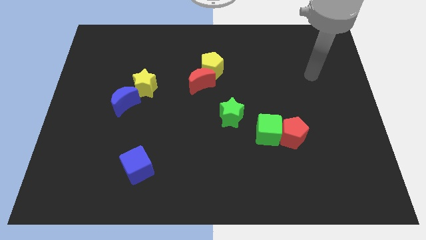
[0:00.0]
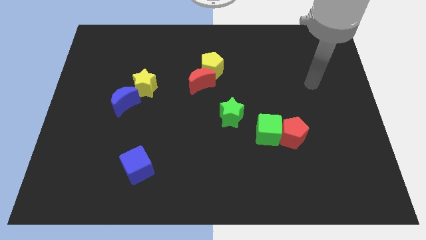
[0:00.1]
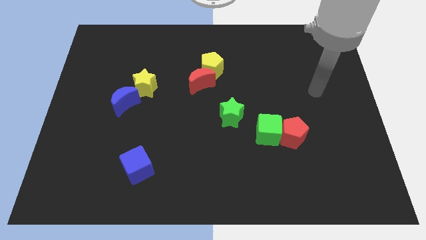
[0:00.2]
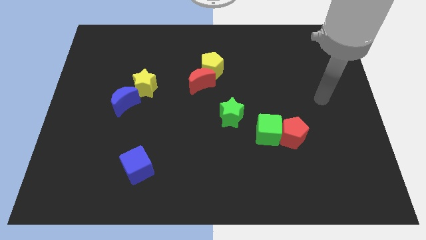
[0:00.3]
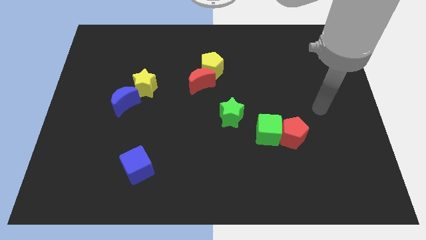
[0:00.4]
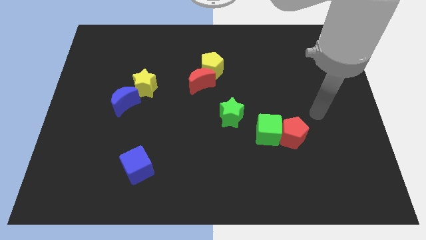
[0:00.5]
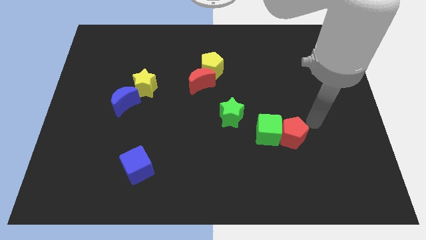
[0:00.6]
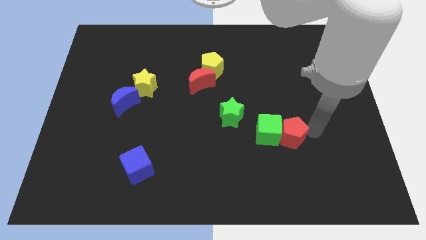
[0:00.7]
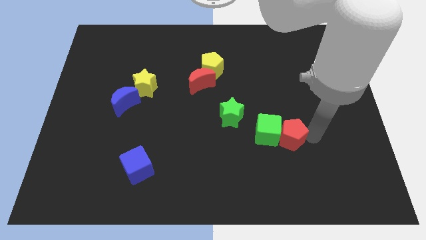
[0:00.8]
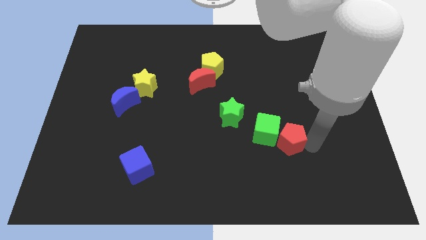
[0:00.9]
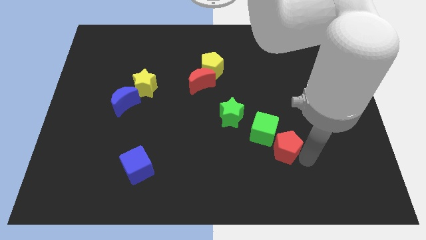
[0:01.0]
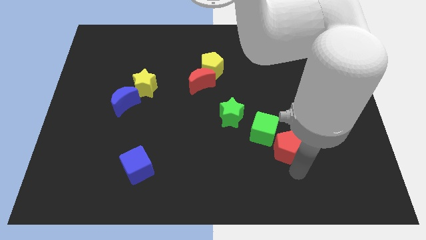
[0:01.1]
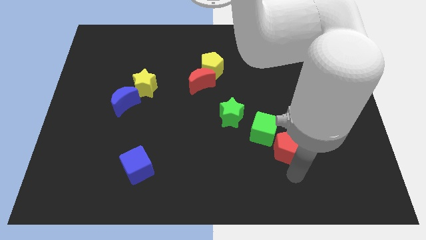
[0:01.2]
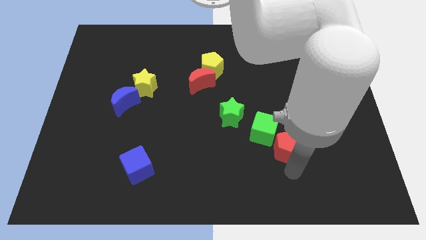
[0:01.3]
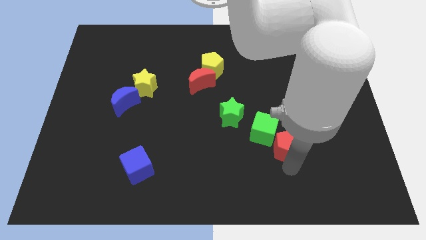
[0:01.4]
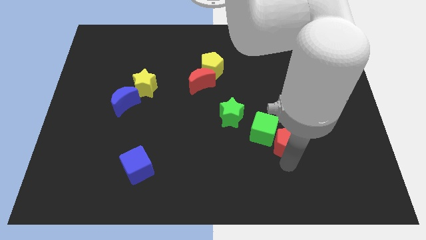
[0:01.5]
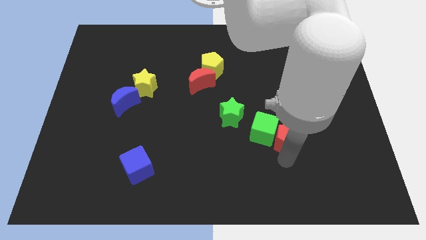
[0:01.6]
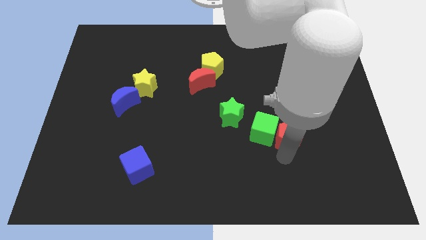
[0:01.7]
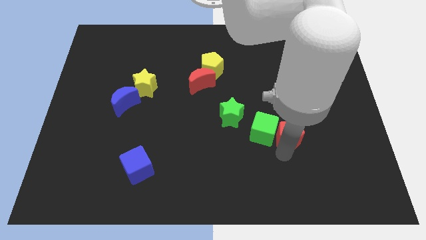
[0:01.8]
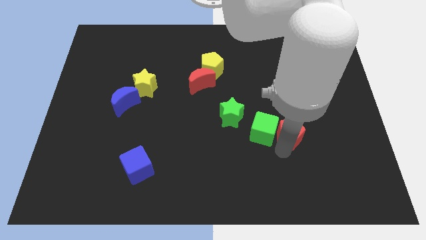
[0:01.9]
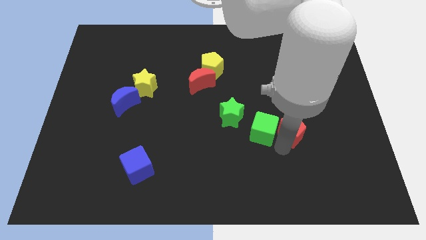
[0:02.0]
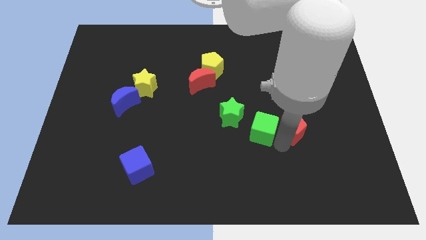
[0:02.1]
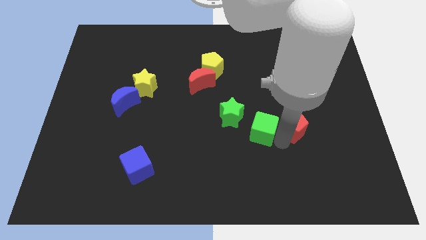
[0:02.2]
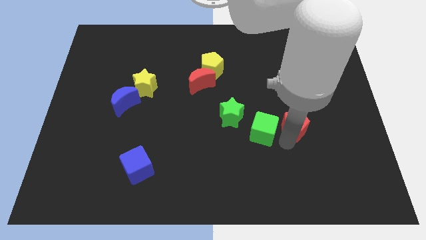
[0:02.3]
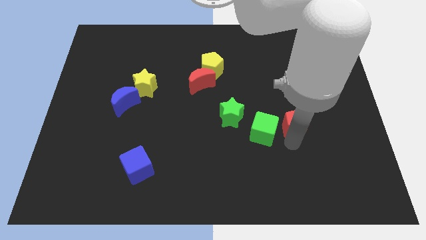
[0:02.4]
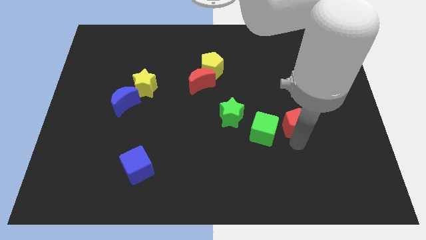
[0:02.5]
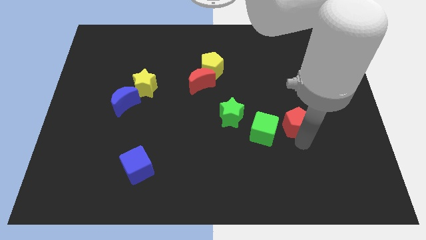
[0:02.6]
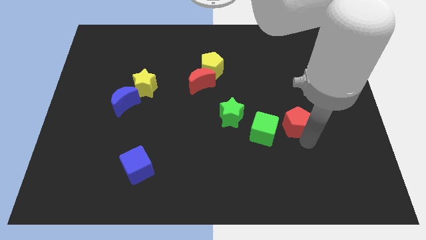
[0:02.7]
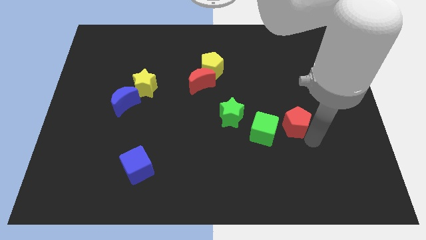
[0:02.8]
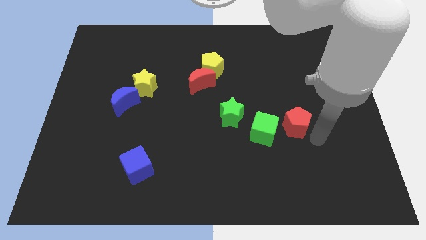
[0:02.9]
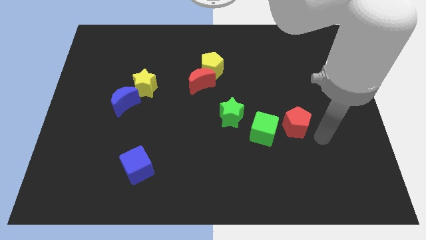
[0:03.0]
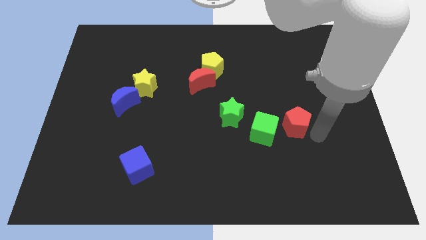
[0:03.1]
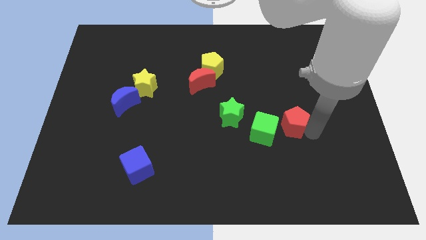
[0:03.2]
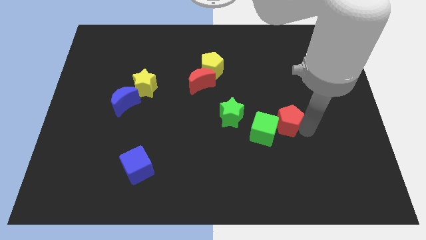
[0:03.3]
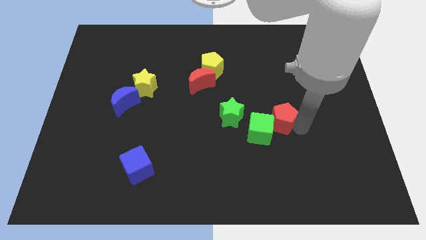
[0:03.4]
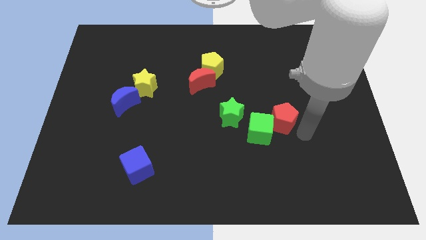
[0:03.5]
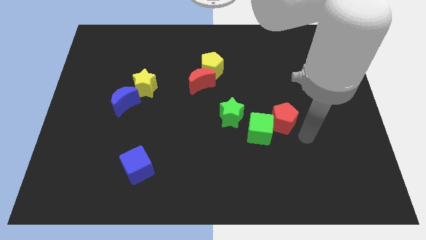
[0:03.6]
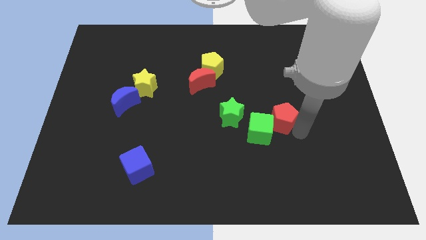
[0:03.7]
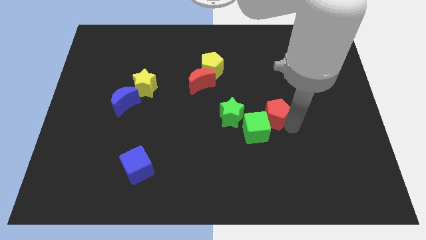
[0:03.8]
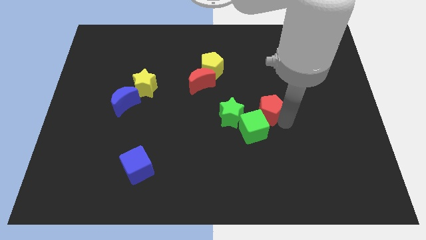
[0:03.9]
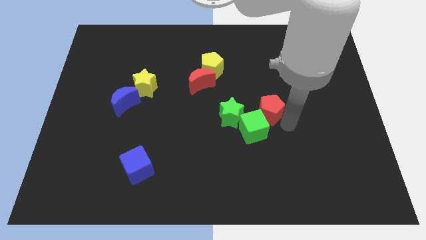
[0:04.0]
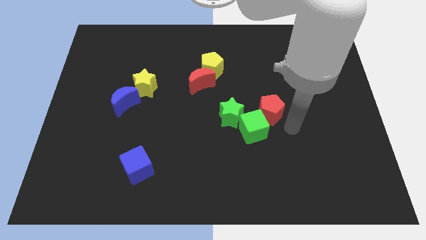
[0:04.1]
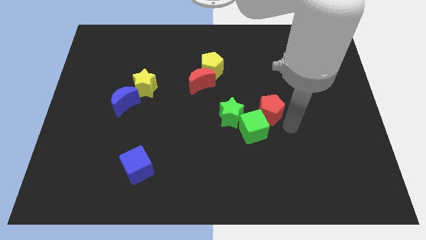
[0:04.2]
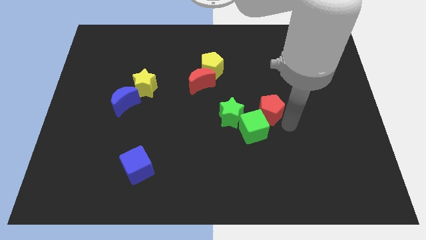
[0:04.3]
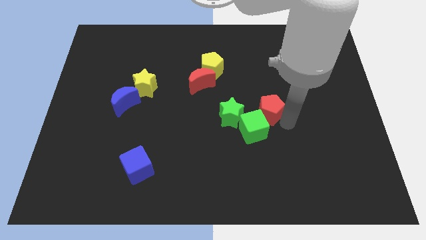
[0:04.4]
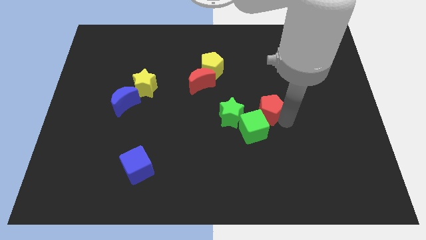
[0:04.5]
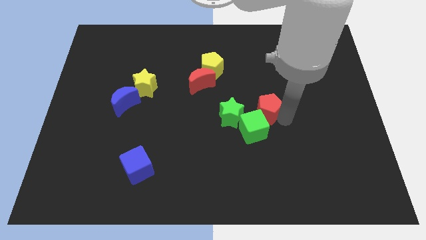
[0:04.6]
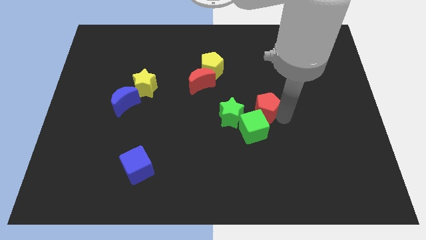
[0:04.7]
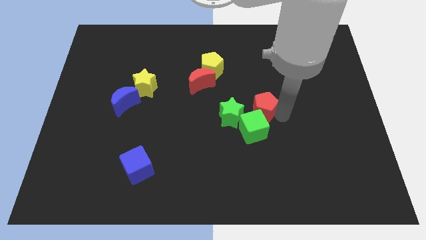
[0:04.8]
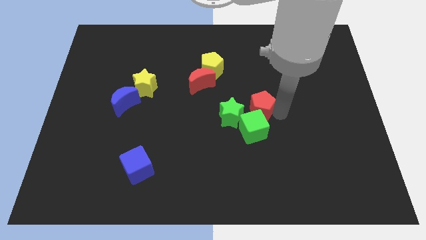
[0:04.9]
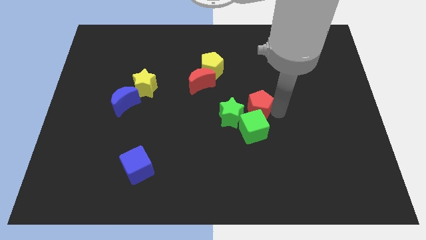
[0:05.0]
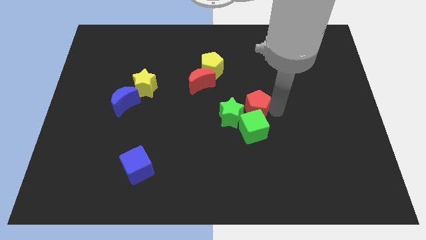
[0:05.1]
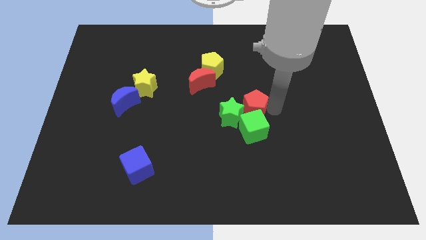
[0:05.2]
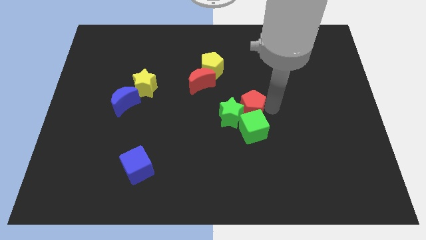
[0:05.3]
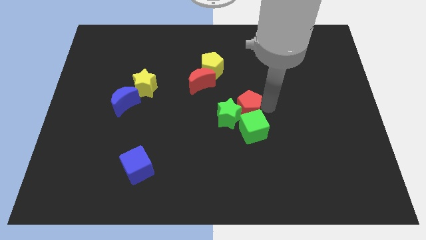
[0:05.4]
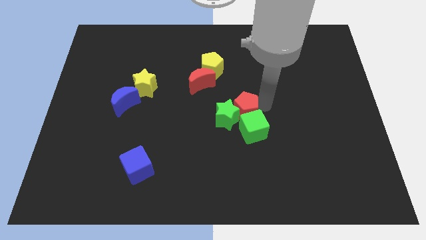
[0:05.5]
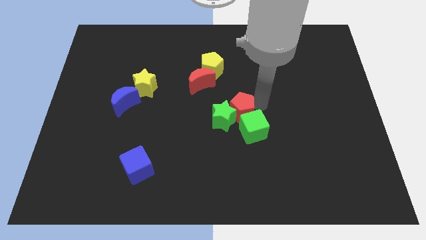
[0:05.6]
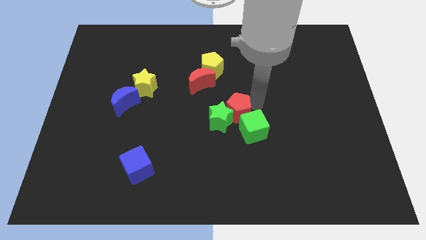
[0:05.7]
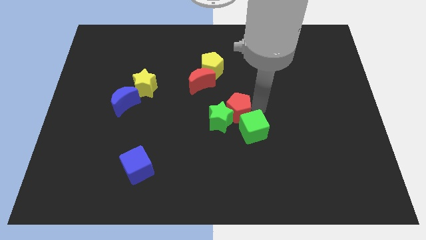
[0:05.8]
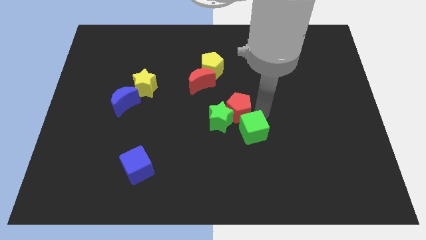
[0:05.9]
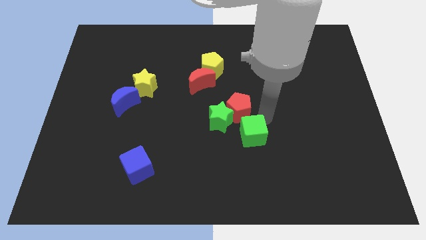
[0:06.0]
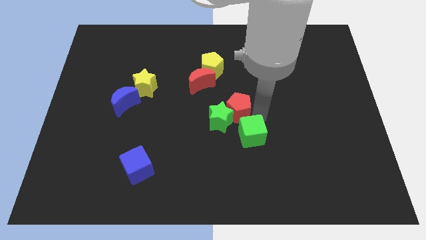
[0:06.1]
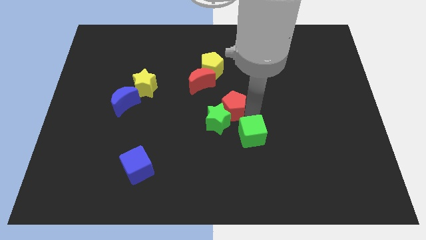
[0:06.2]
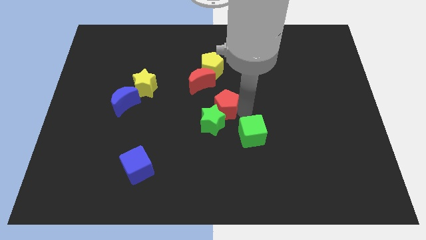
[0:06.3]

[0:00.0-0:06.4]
slide the red pentagon to the bottom side of the yellow pentagon

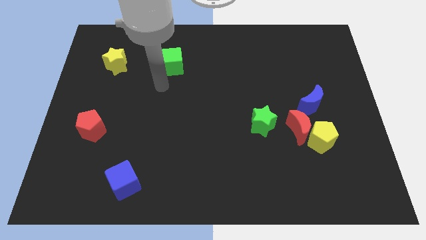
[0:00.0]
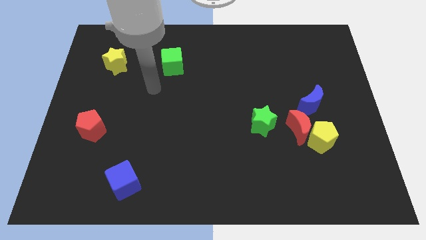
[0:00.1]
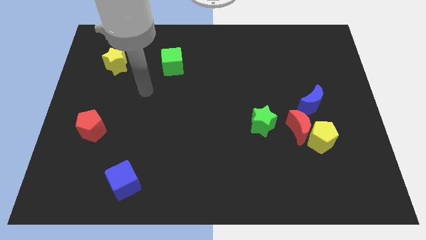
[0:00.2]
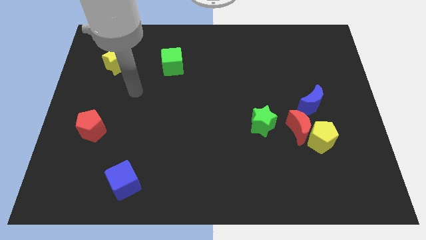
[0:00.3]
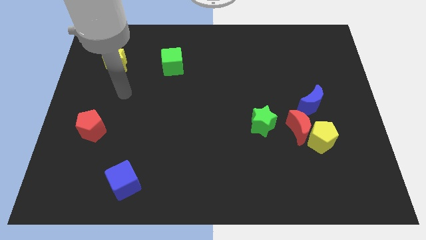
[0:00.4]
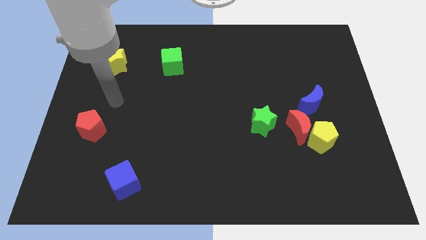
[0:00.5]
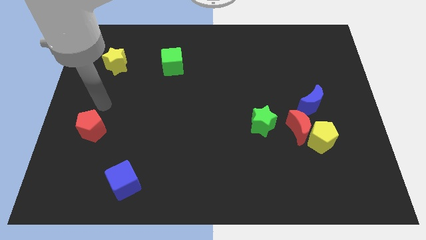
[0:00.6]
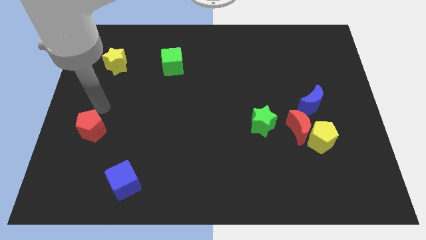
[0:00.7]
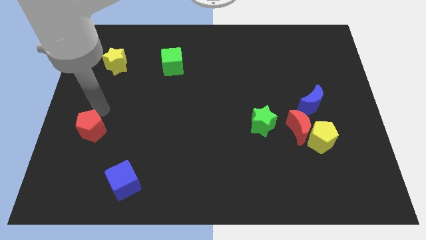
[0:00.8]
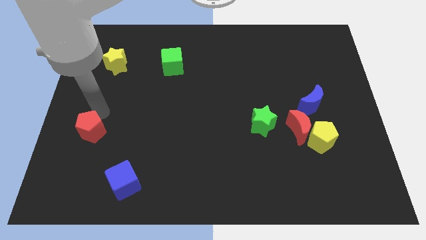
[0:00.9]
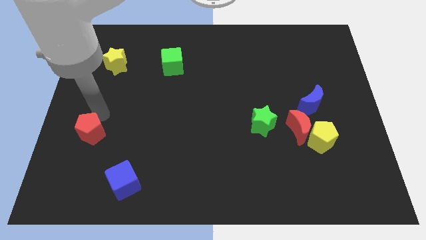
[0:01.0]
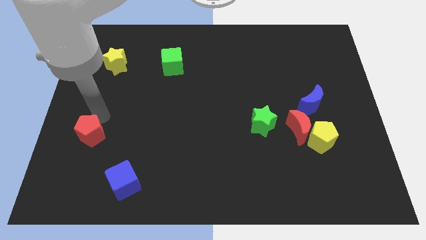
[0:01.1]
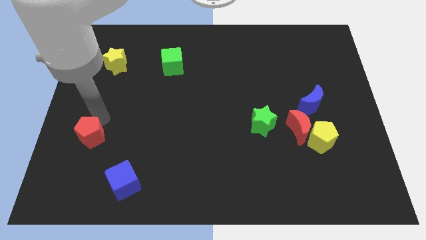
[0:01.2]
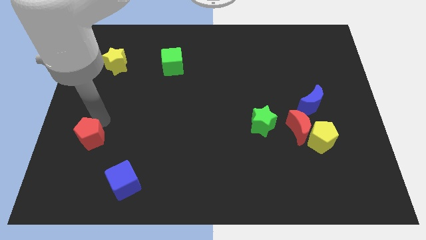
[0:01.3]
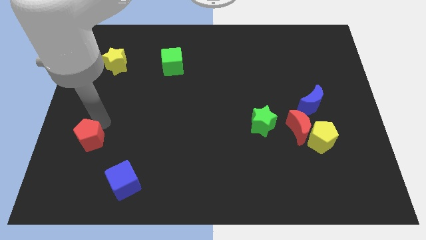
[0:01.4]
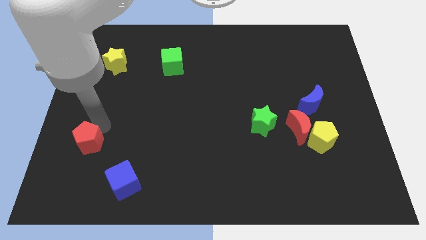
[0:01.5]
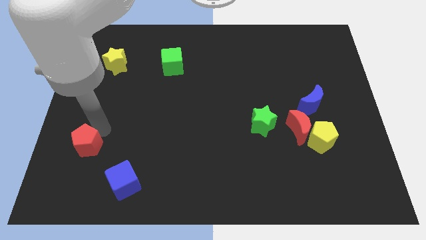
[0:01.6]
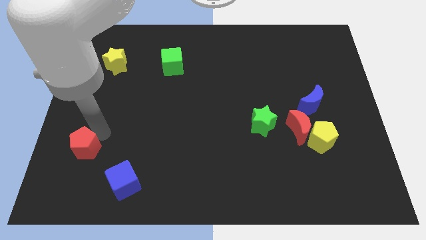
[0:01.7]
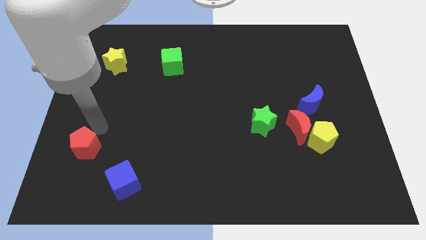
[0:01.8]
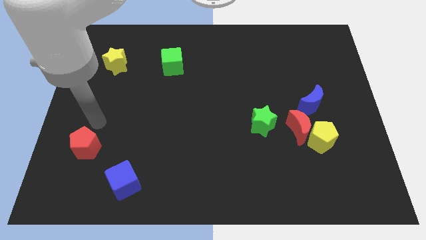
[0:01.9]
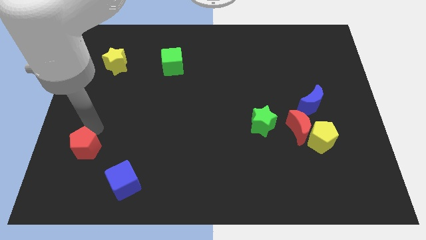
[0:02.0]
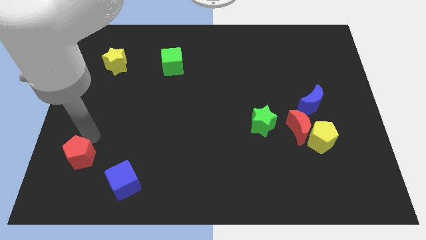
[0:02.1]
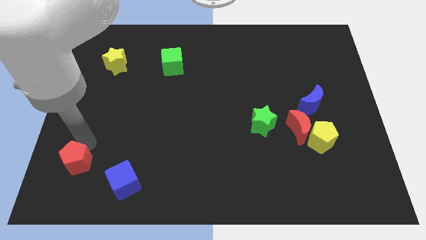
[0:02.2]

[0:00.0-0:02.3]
put the red pentagon to the left of the blue cube
